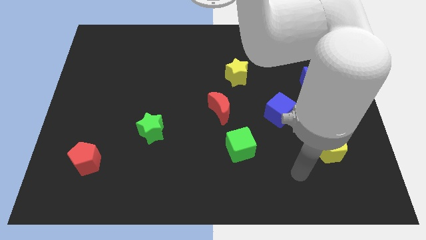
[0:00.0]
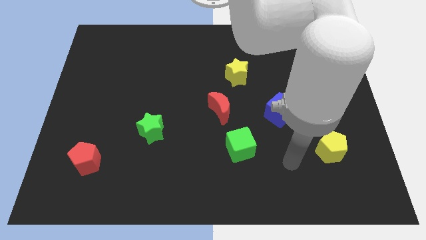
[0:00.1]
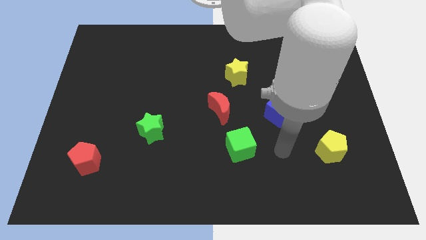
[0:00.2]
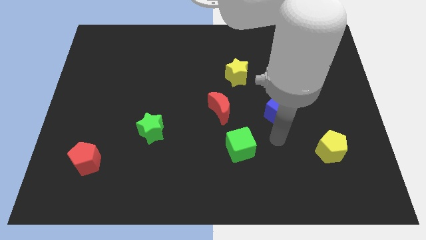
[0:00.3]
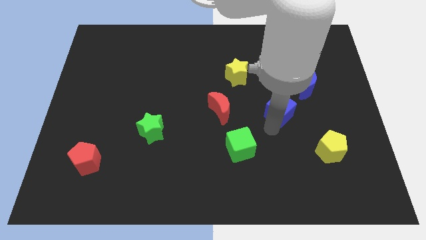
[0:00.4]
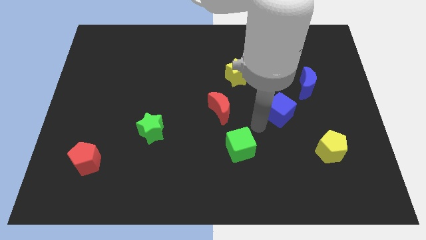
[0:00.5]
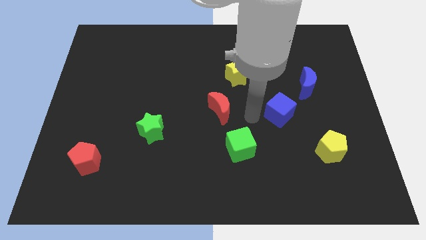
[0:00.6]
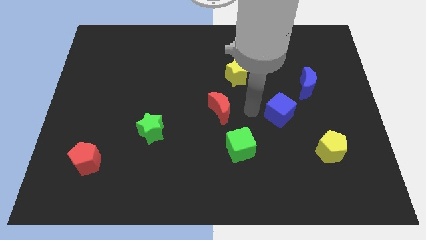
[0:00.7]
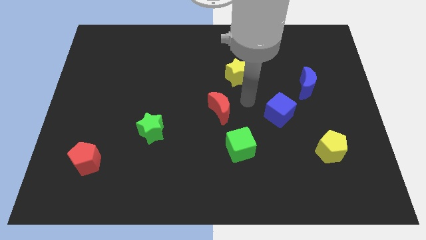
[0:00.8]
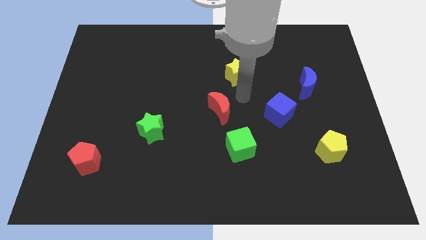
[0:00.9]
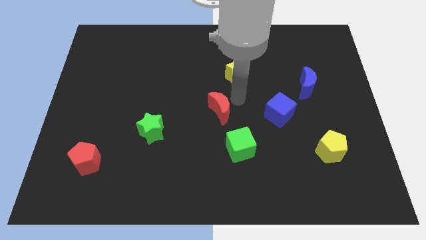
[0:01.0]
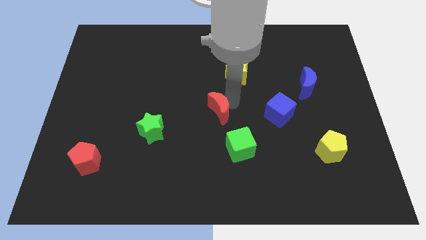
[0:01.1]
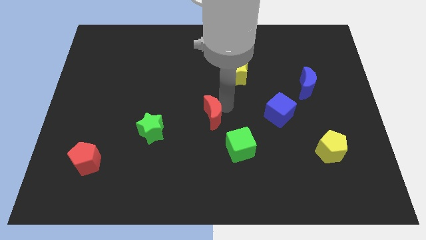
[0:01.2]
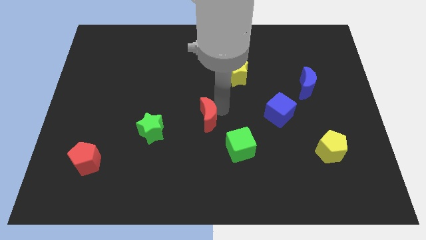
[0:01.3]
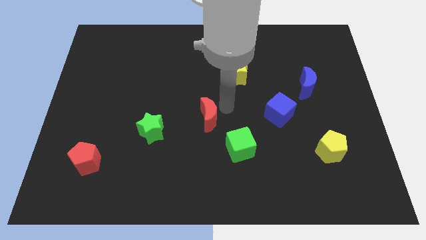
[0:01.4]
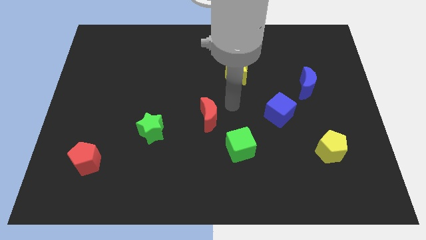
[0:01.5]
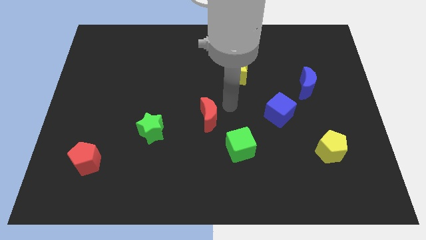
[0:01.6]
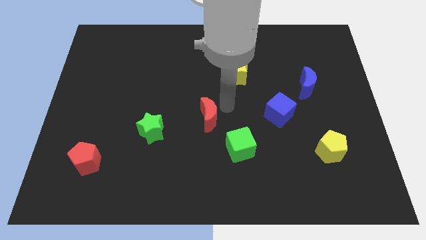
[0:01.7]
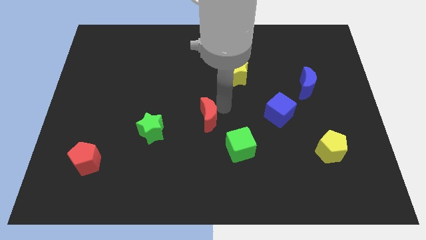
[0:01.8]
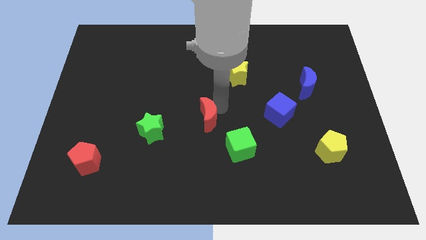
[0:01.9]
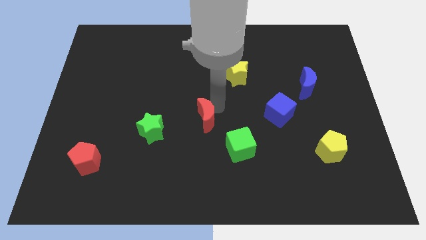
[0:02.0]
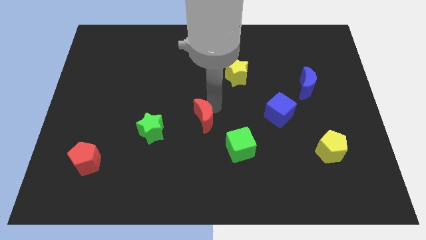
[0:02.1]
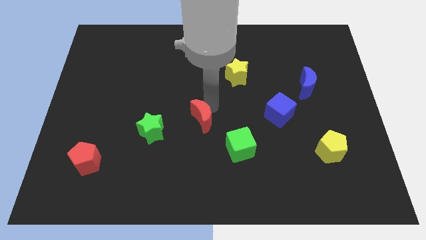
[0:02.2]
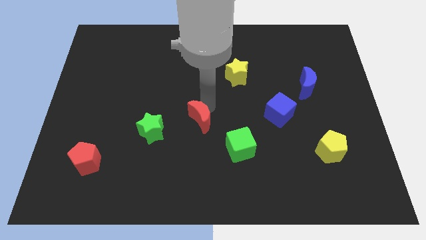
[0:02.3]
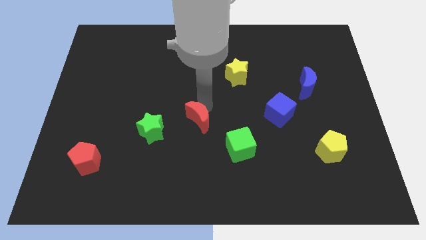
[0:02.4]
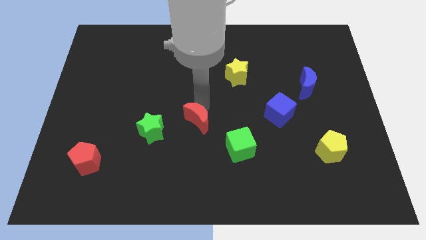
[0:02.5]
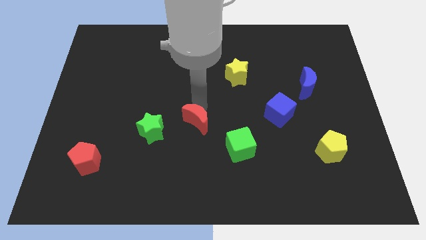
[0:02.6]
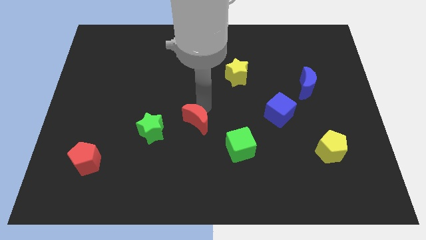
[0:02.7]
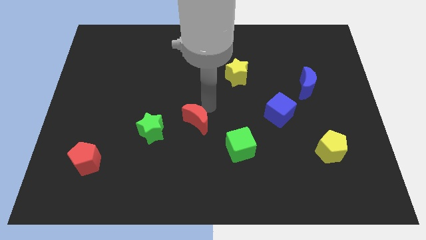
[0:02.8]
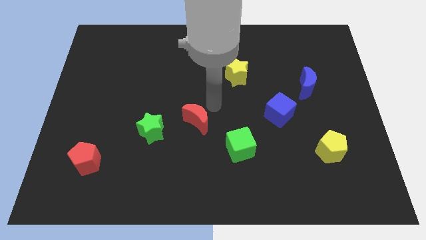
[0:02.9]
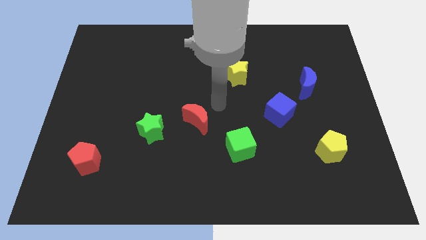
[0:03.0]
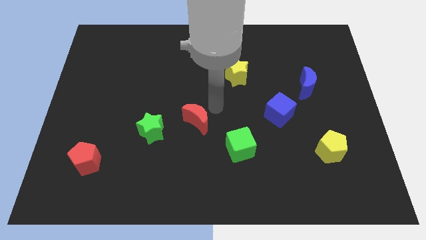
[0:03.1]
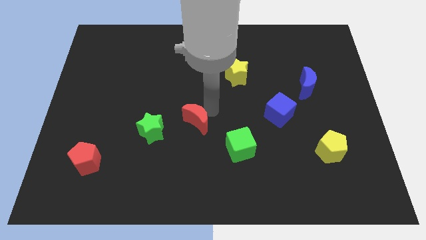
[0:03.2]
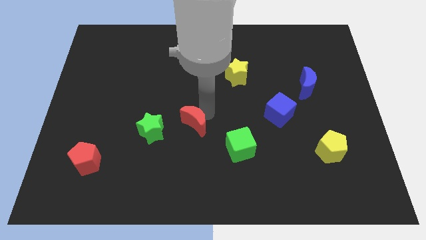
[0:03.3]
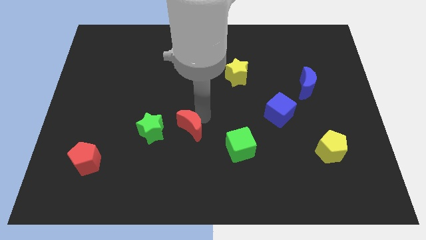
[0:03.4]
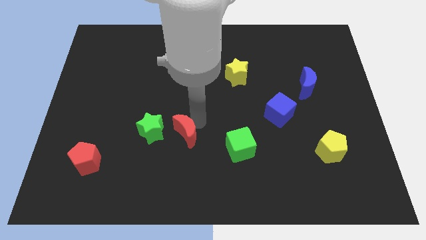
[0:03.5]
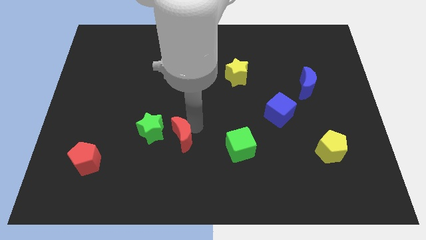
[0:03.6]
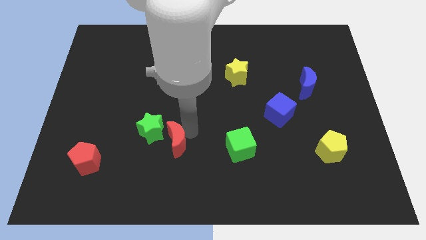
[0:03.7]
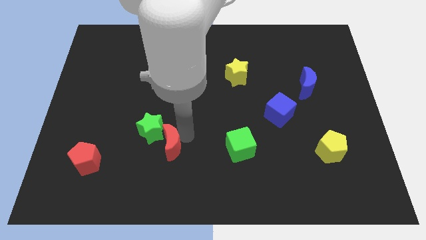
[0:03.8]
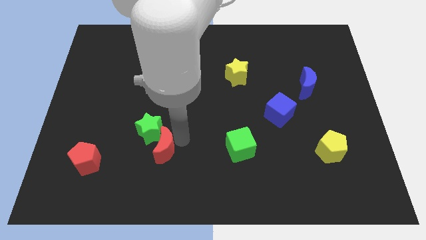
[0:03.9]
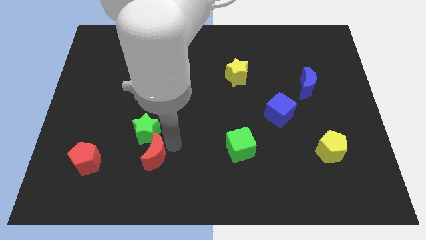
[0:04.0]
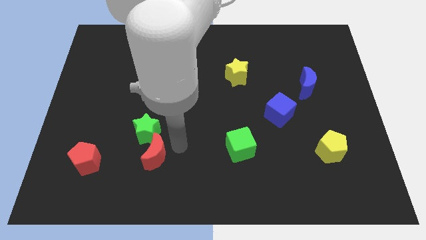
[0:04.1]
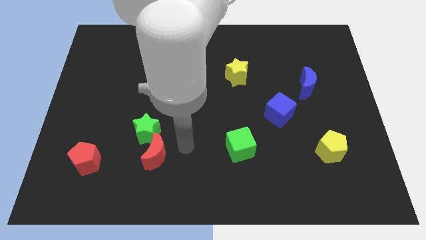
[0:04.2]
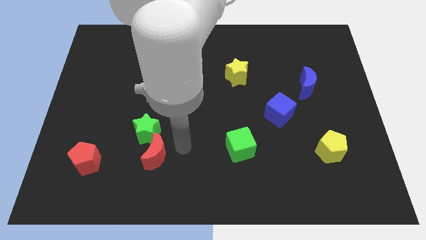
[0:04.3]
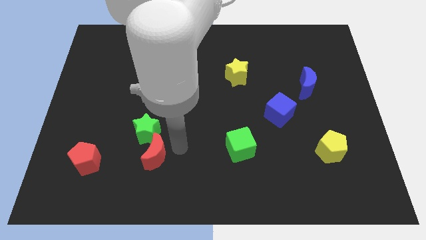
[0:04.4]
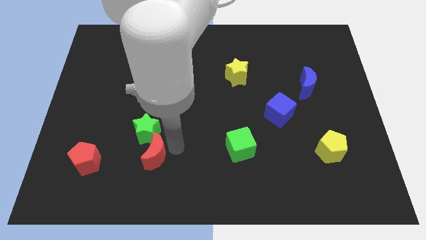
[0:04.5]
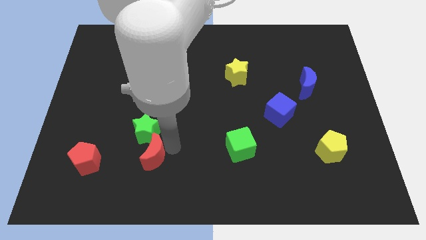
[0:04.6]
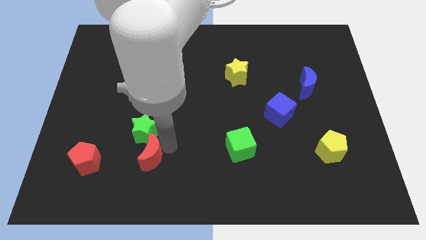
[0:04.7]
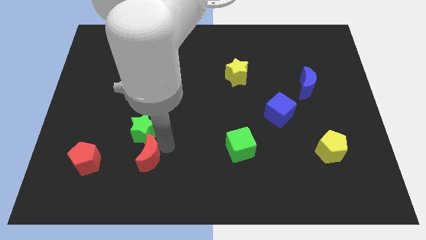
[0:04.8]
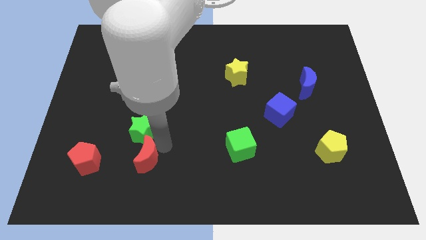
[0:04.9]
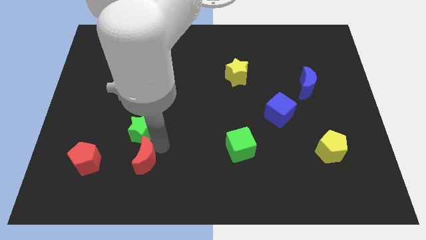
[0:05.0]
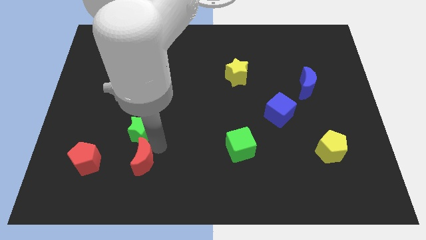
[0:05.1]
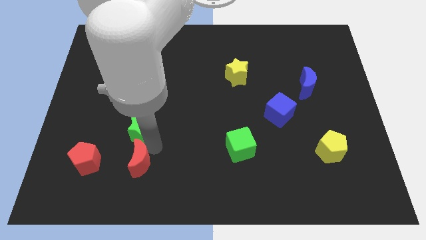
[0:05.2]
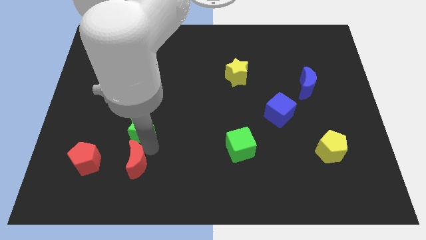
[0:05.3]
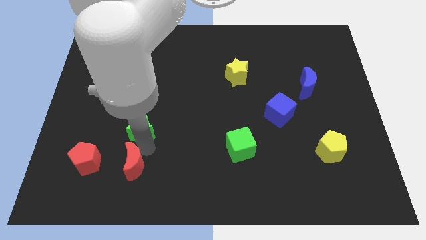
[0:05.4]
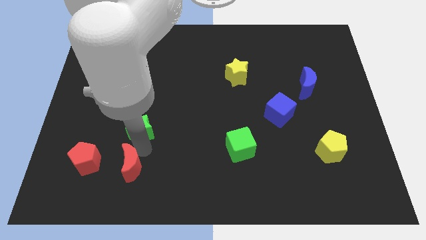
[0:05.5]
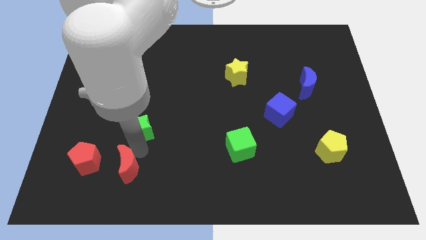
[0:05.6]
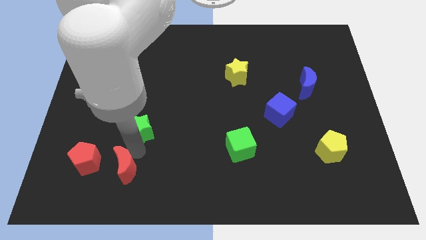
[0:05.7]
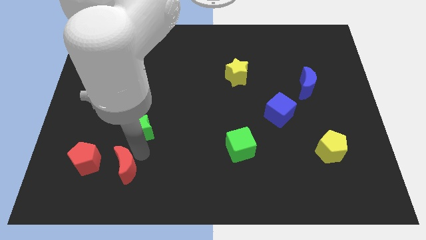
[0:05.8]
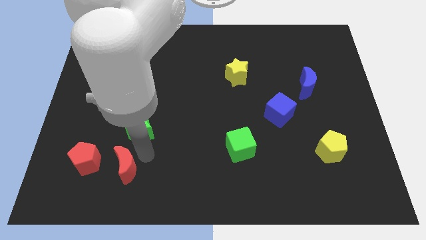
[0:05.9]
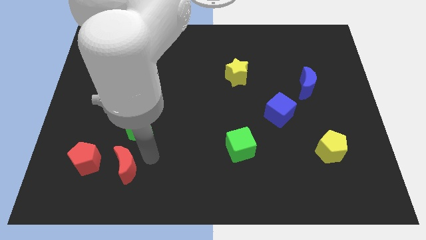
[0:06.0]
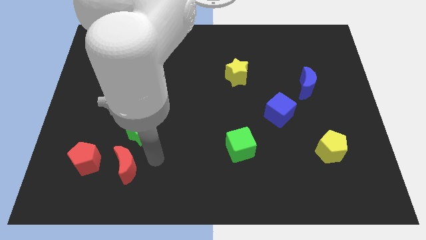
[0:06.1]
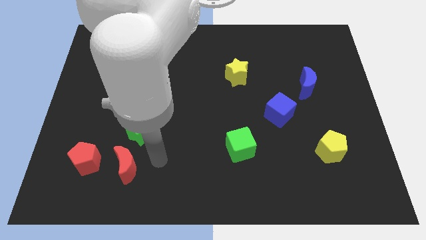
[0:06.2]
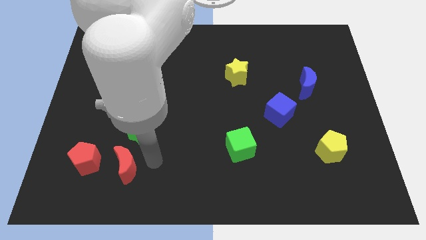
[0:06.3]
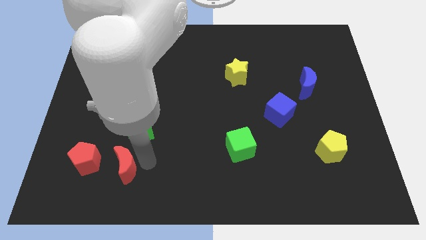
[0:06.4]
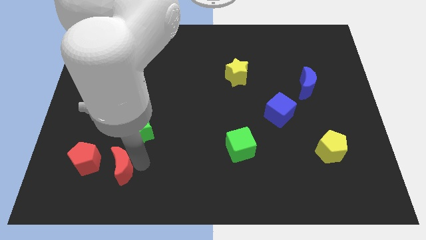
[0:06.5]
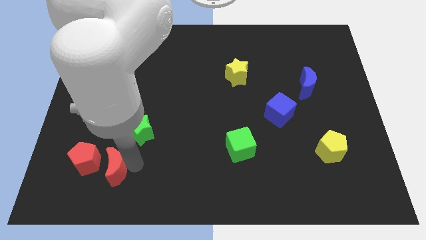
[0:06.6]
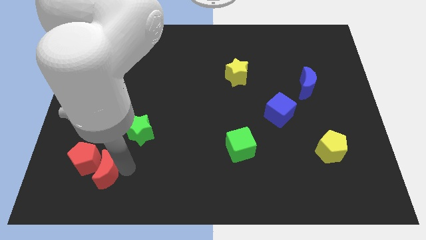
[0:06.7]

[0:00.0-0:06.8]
slide the red moon to the red pentagon

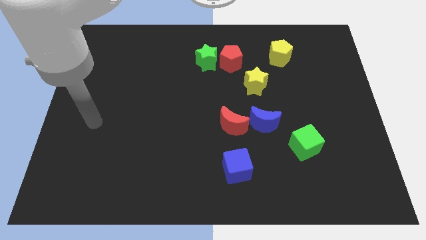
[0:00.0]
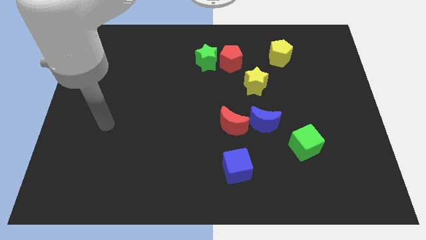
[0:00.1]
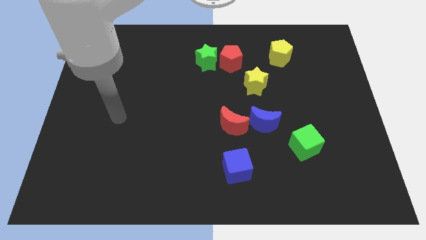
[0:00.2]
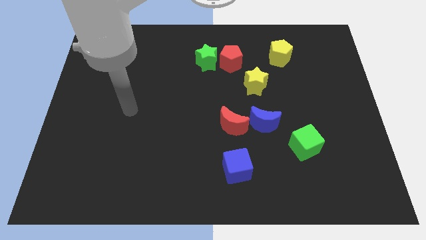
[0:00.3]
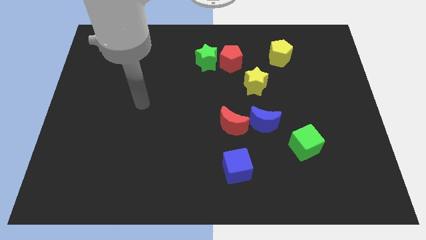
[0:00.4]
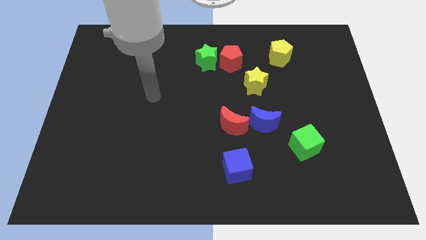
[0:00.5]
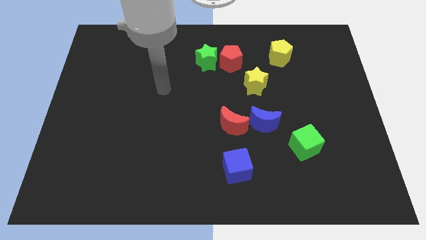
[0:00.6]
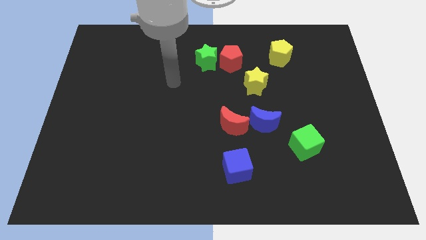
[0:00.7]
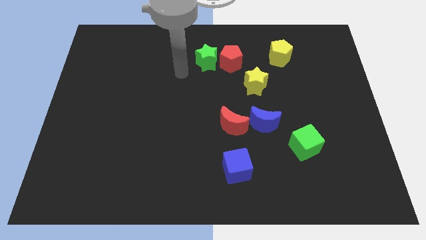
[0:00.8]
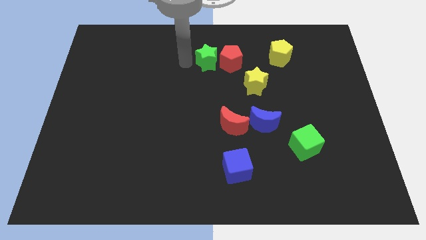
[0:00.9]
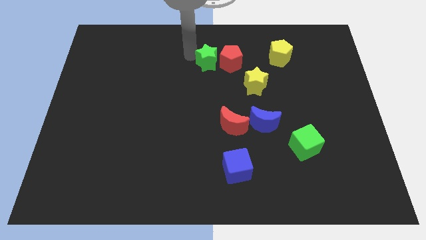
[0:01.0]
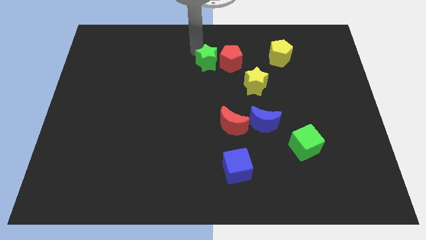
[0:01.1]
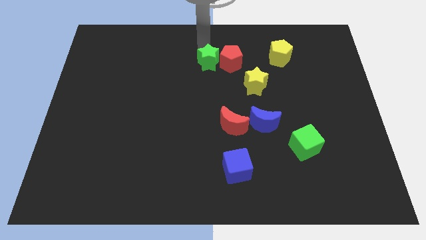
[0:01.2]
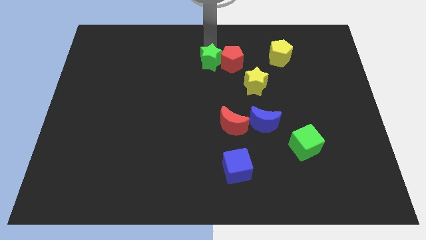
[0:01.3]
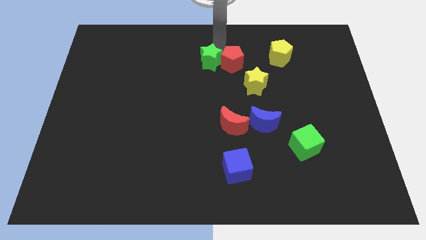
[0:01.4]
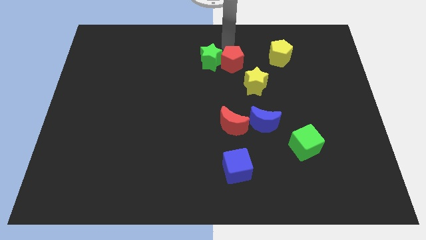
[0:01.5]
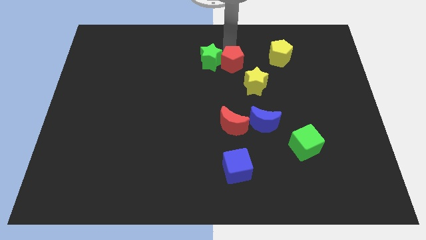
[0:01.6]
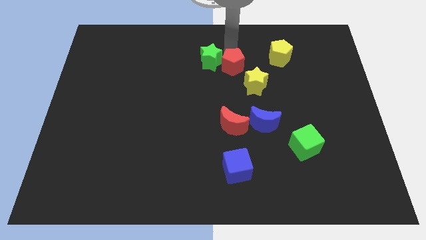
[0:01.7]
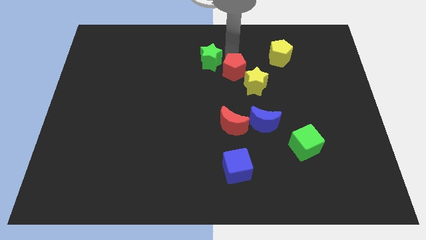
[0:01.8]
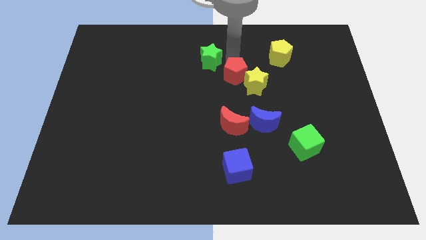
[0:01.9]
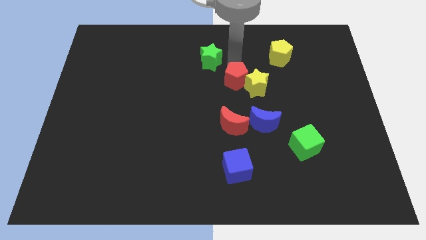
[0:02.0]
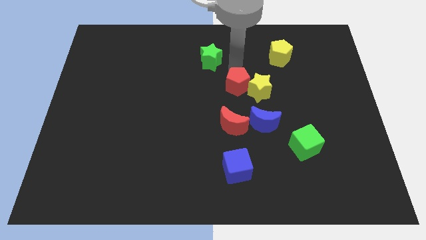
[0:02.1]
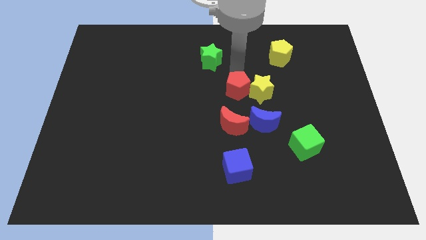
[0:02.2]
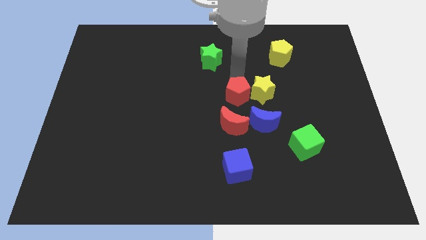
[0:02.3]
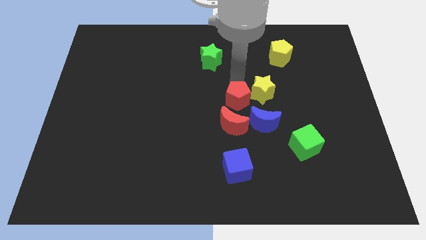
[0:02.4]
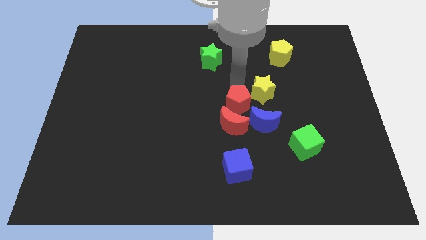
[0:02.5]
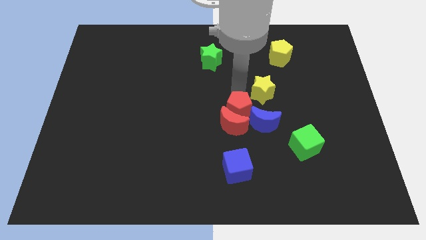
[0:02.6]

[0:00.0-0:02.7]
slide the red pentagon to the red moon
